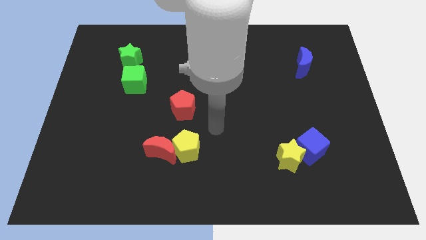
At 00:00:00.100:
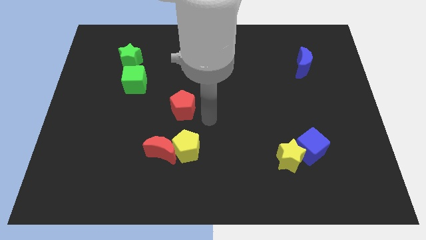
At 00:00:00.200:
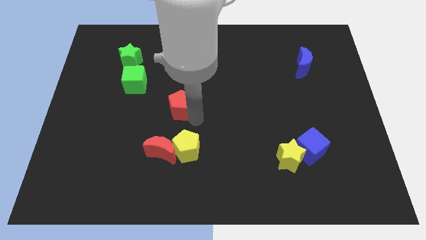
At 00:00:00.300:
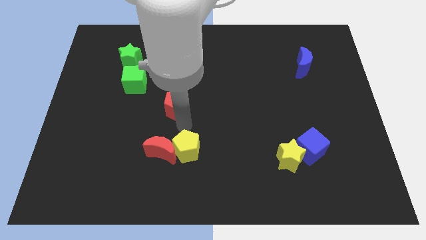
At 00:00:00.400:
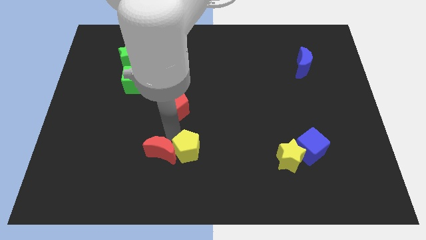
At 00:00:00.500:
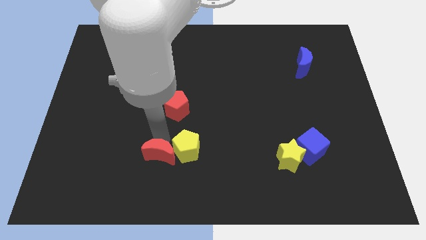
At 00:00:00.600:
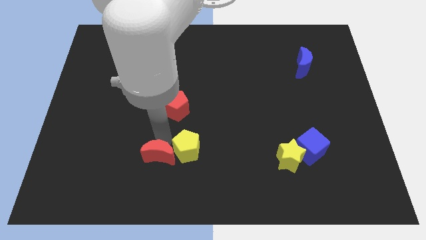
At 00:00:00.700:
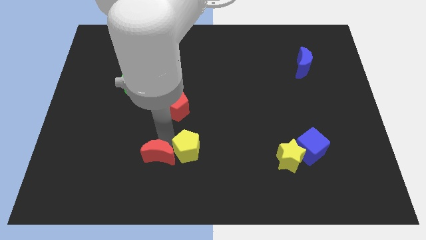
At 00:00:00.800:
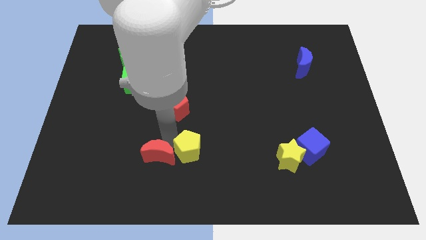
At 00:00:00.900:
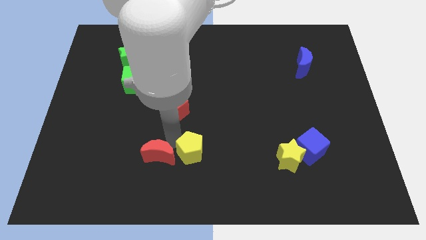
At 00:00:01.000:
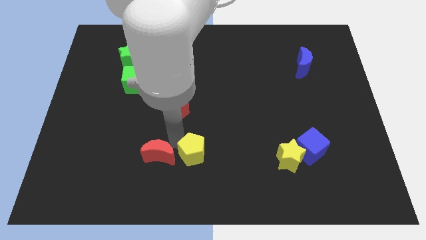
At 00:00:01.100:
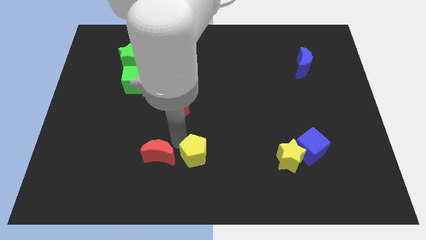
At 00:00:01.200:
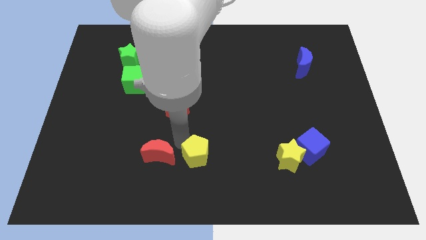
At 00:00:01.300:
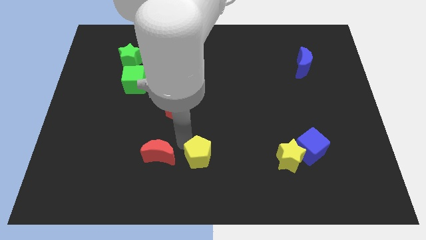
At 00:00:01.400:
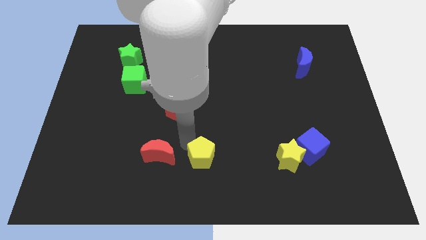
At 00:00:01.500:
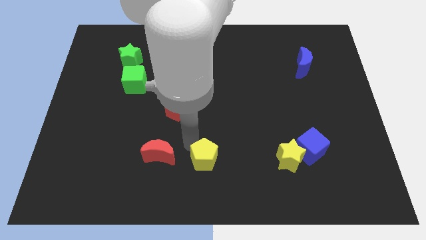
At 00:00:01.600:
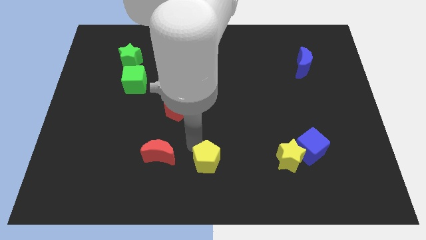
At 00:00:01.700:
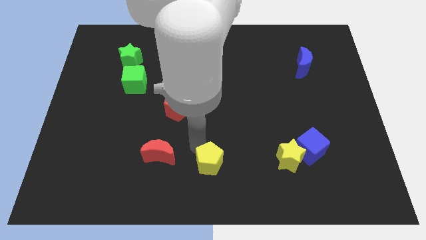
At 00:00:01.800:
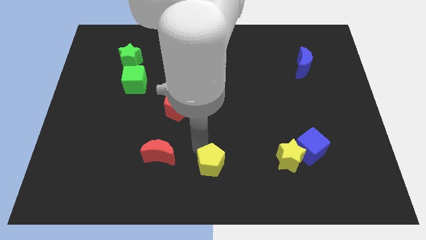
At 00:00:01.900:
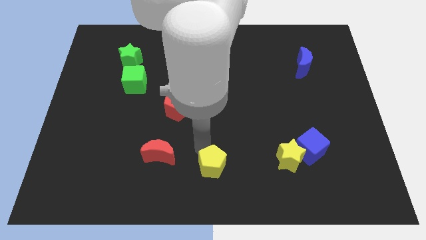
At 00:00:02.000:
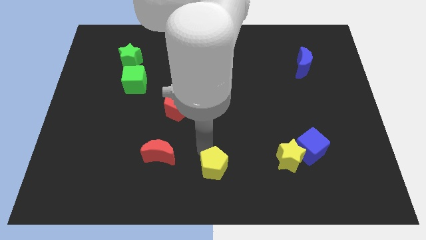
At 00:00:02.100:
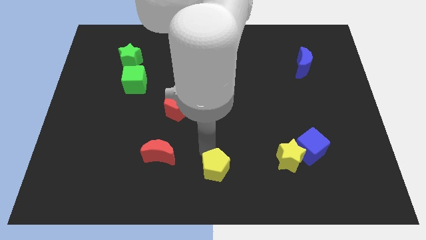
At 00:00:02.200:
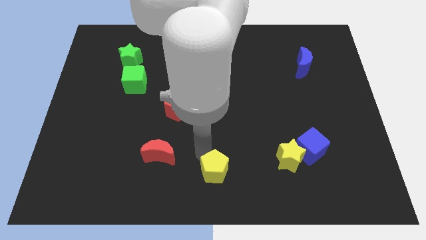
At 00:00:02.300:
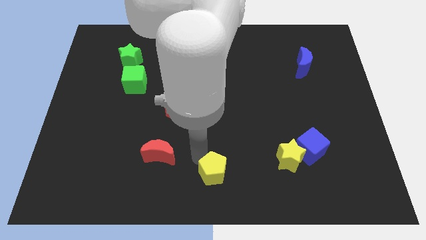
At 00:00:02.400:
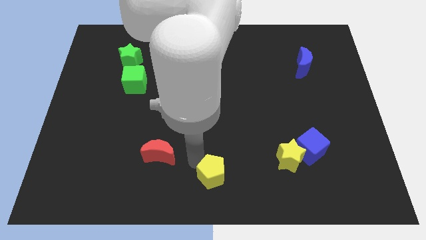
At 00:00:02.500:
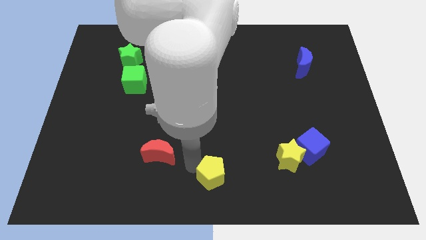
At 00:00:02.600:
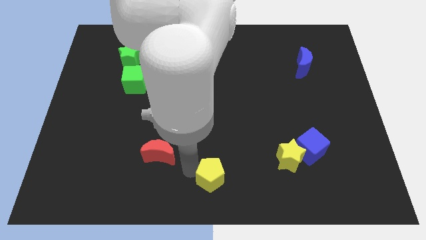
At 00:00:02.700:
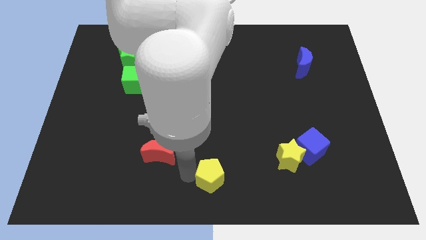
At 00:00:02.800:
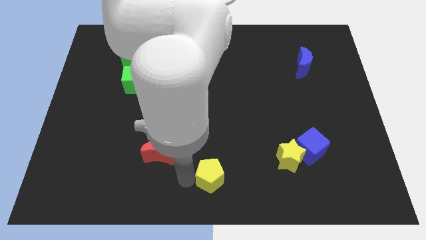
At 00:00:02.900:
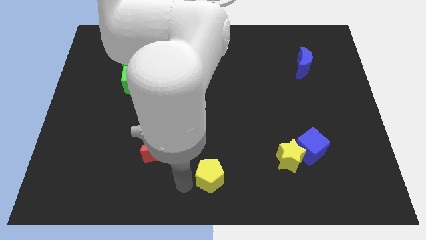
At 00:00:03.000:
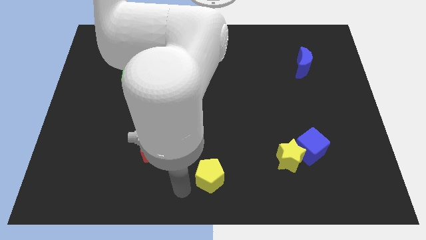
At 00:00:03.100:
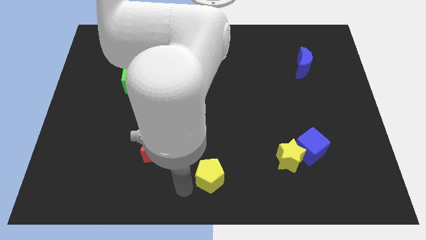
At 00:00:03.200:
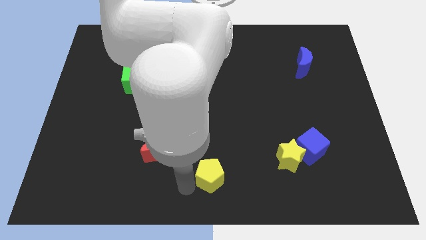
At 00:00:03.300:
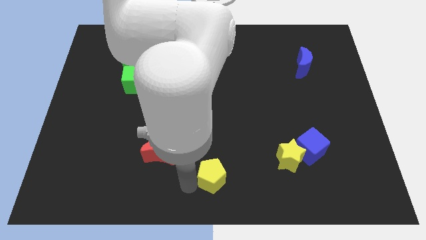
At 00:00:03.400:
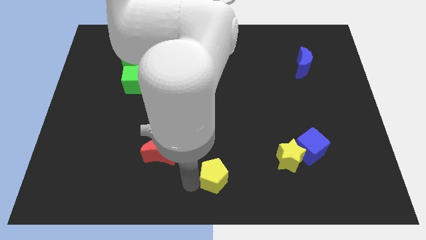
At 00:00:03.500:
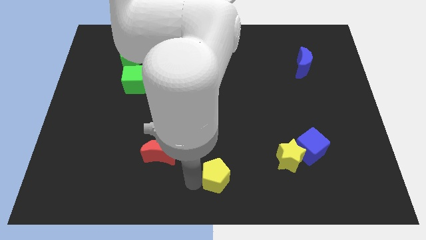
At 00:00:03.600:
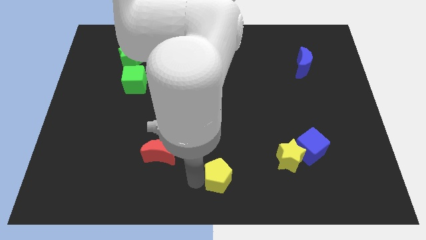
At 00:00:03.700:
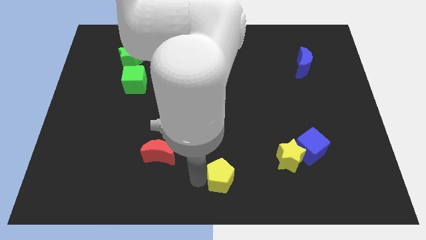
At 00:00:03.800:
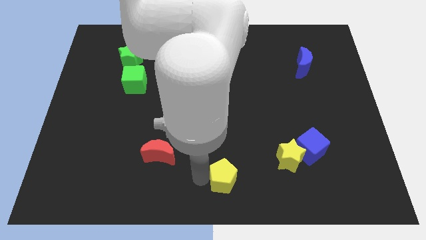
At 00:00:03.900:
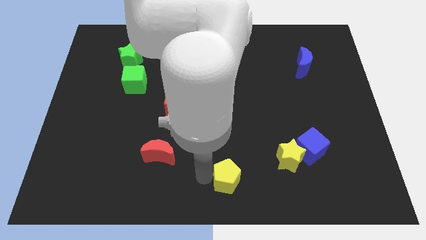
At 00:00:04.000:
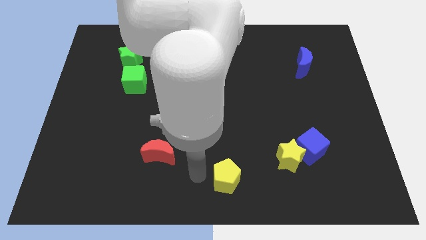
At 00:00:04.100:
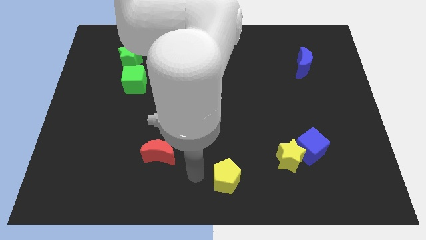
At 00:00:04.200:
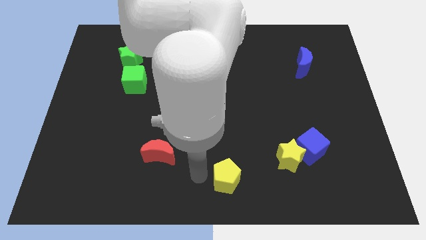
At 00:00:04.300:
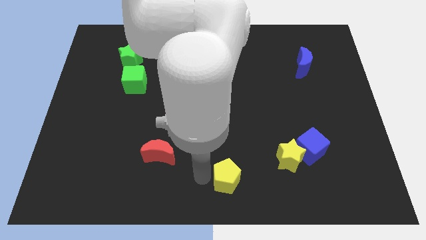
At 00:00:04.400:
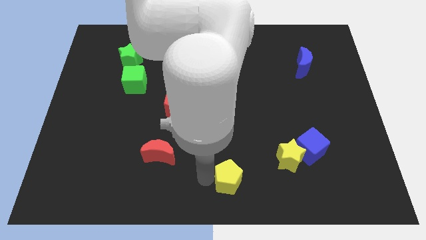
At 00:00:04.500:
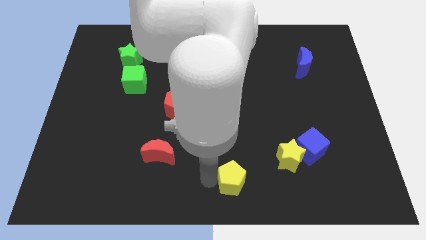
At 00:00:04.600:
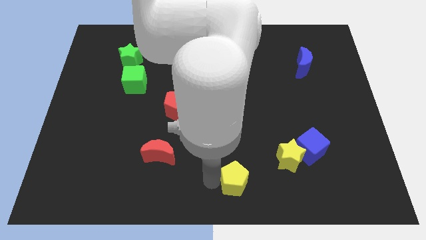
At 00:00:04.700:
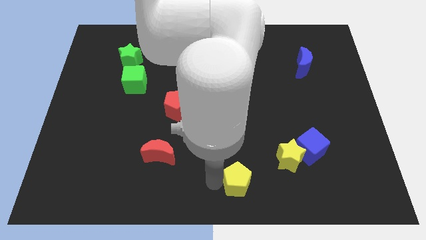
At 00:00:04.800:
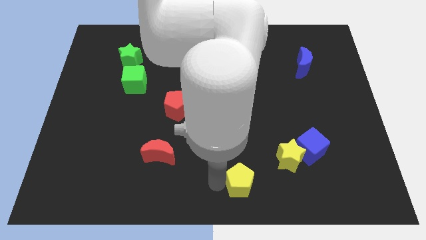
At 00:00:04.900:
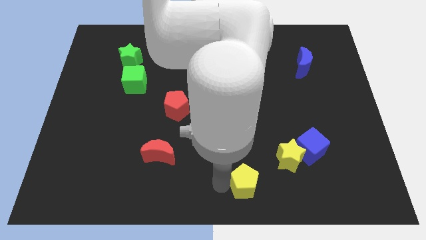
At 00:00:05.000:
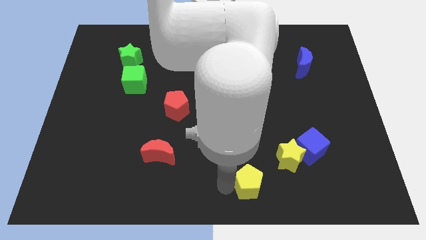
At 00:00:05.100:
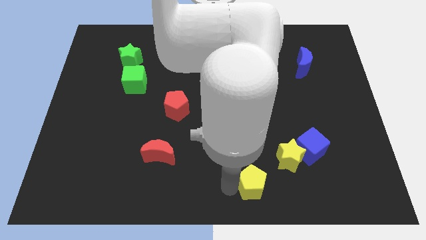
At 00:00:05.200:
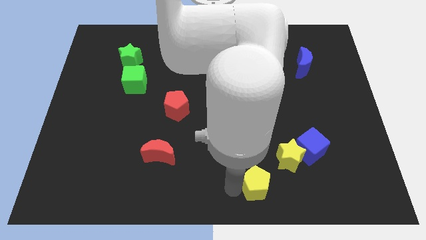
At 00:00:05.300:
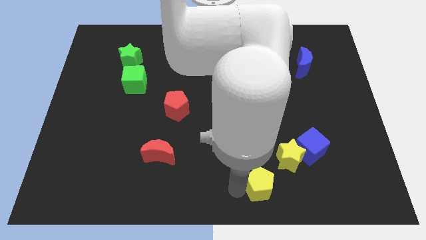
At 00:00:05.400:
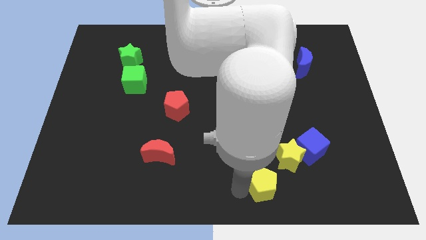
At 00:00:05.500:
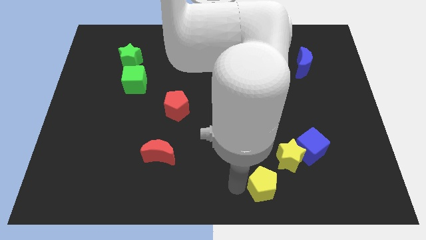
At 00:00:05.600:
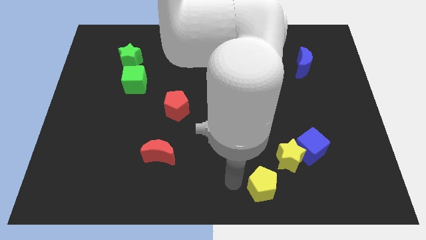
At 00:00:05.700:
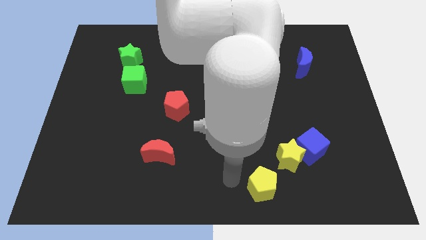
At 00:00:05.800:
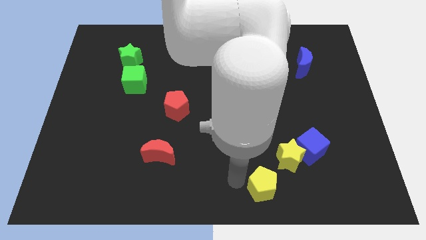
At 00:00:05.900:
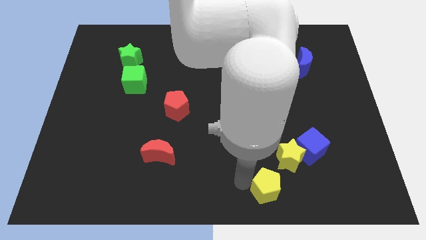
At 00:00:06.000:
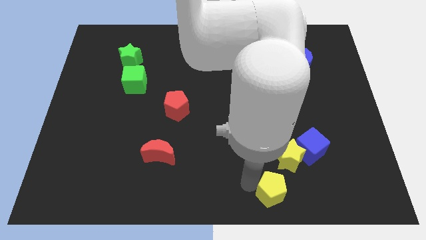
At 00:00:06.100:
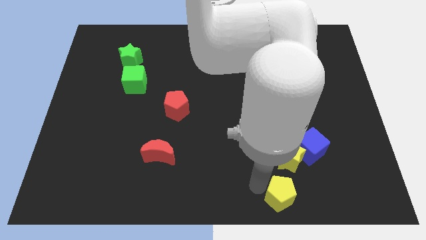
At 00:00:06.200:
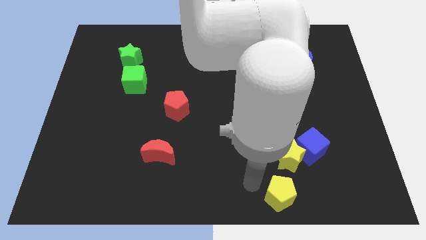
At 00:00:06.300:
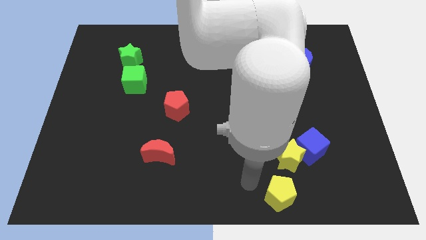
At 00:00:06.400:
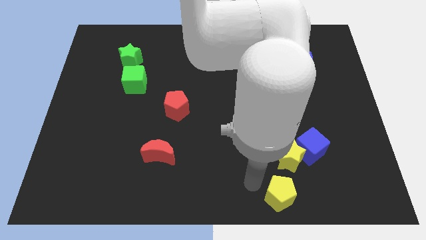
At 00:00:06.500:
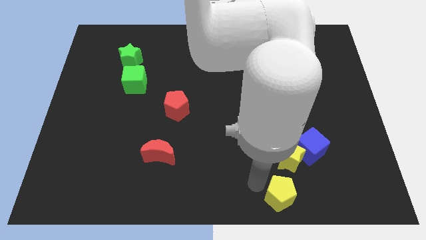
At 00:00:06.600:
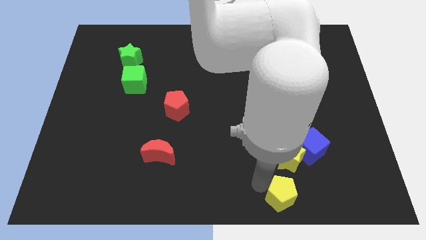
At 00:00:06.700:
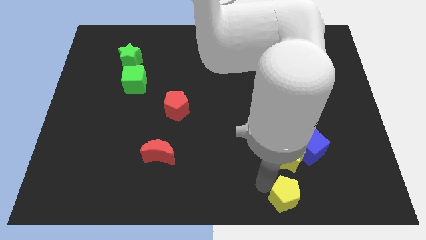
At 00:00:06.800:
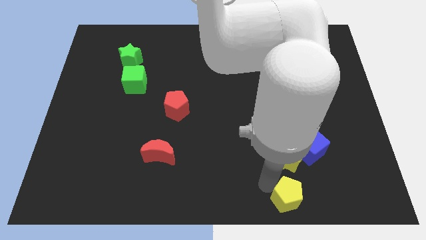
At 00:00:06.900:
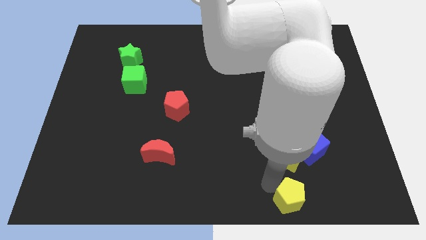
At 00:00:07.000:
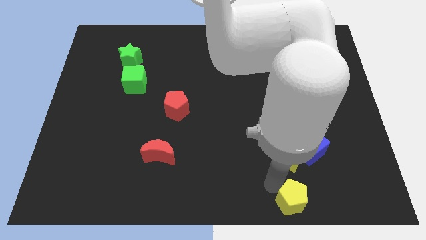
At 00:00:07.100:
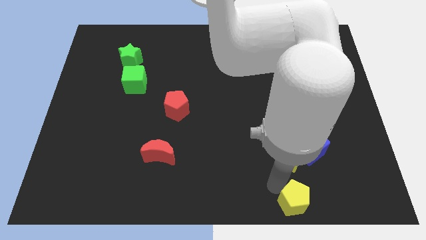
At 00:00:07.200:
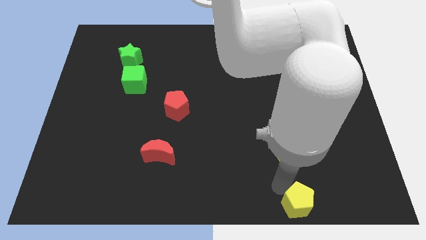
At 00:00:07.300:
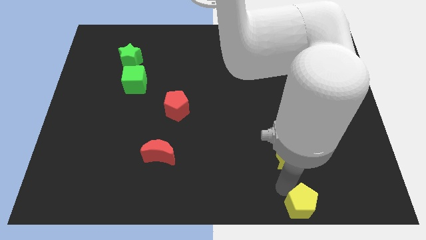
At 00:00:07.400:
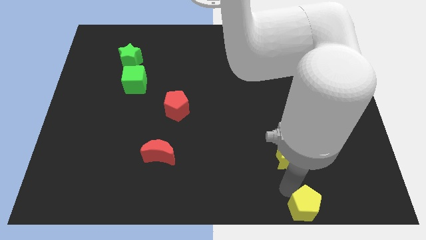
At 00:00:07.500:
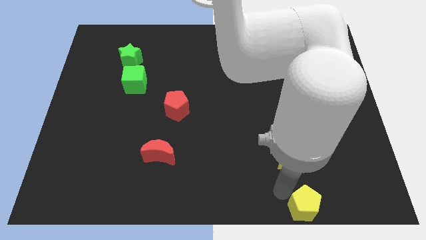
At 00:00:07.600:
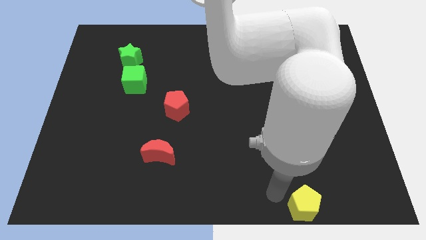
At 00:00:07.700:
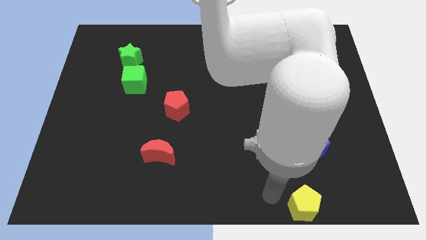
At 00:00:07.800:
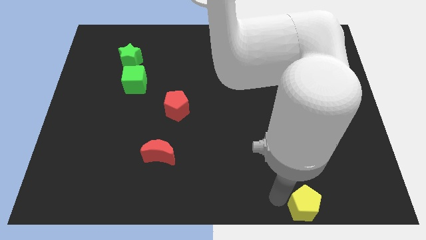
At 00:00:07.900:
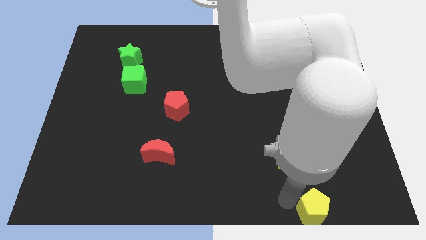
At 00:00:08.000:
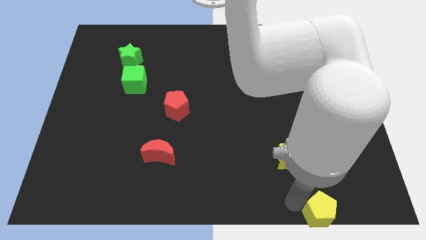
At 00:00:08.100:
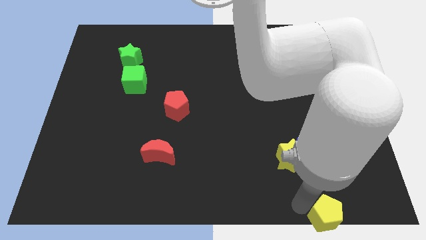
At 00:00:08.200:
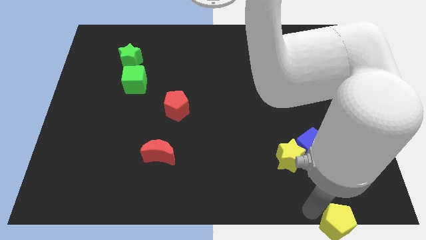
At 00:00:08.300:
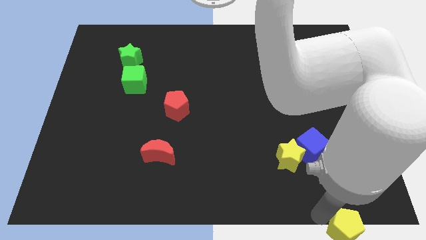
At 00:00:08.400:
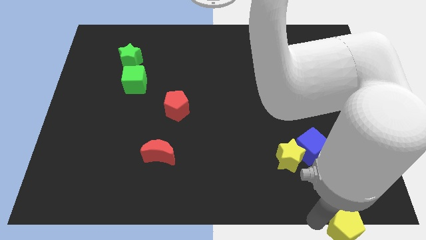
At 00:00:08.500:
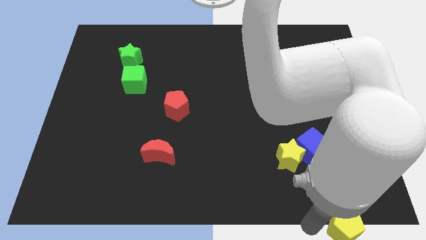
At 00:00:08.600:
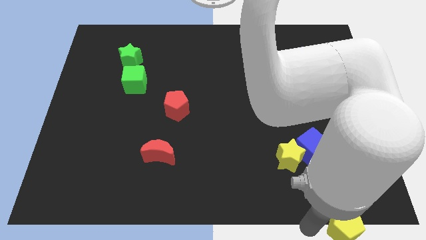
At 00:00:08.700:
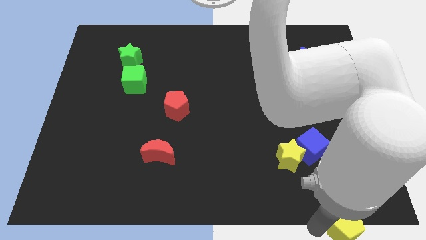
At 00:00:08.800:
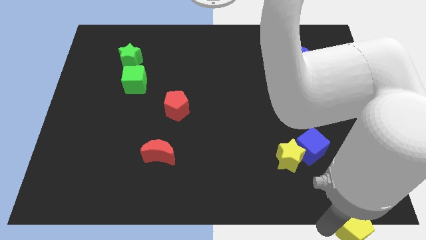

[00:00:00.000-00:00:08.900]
put the yellow pentagon to the lower right corner
